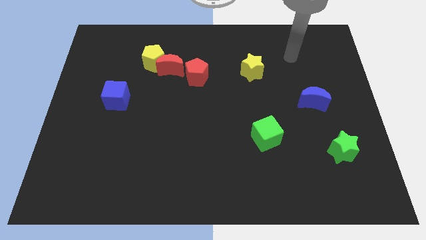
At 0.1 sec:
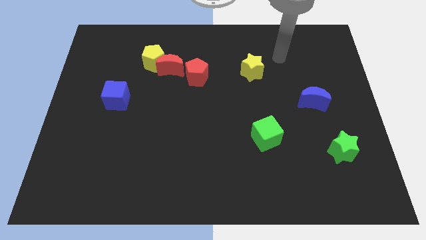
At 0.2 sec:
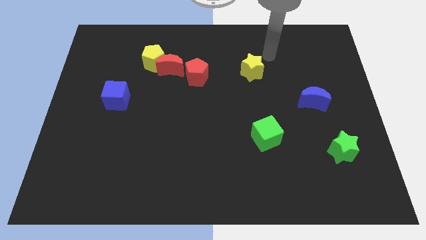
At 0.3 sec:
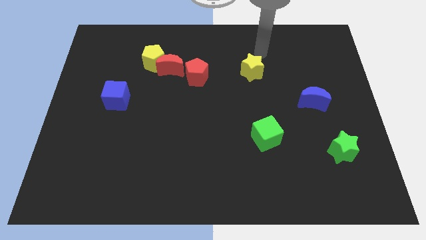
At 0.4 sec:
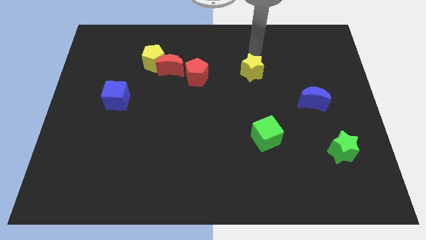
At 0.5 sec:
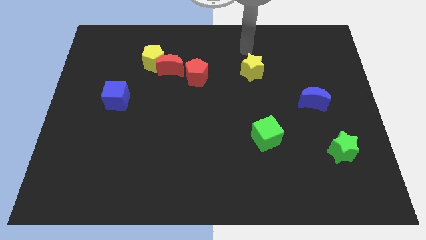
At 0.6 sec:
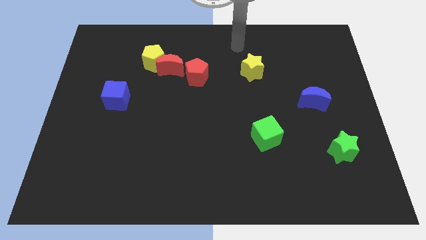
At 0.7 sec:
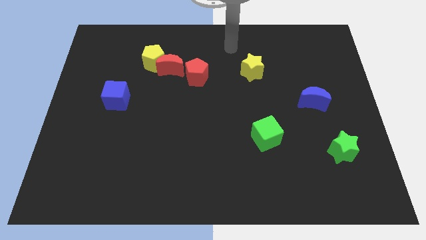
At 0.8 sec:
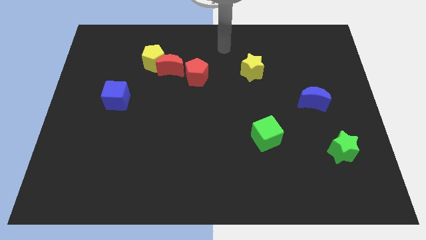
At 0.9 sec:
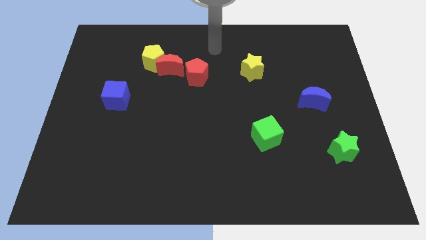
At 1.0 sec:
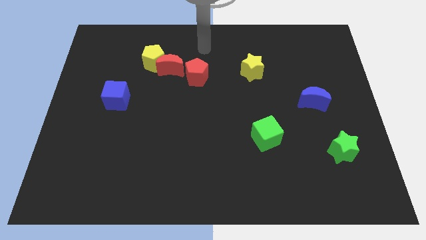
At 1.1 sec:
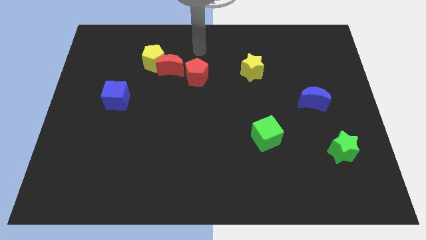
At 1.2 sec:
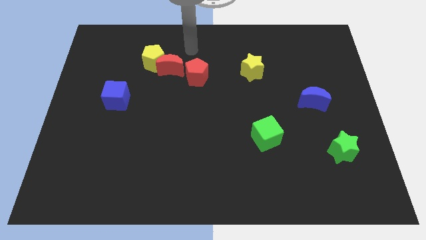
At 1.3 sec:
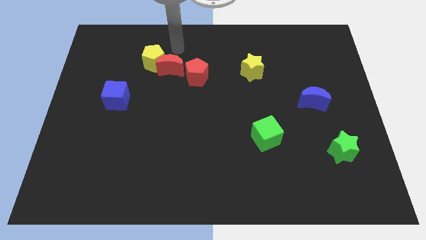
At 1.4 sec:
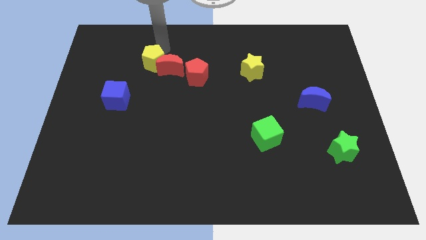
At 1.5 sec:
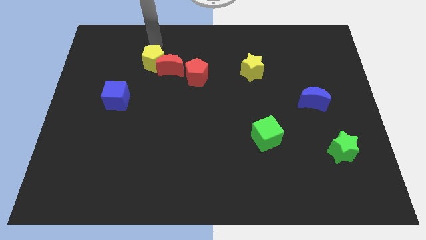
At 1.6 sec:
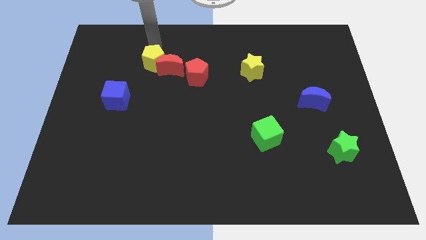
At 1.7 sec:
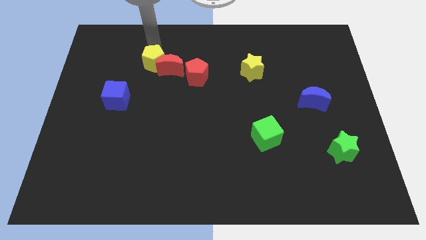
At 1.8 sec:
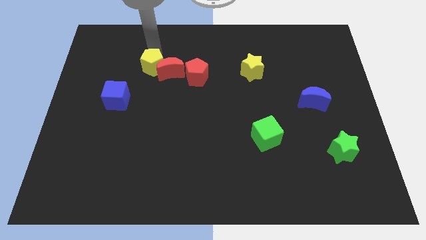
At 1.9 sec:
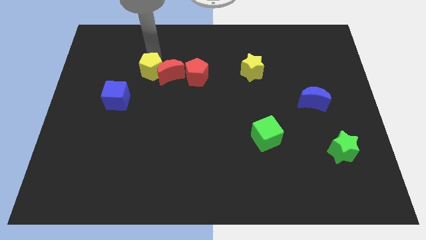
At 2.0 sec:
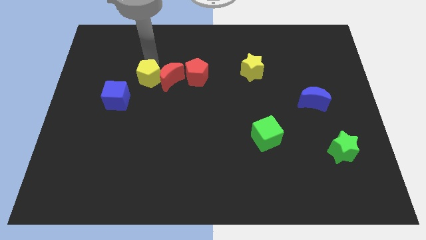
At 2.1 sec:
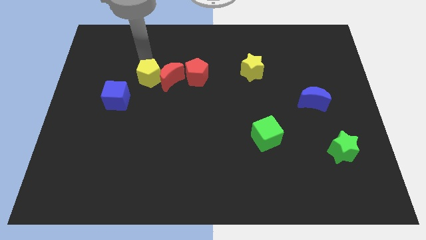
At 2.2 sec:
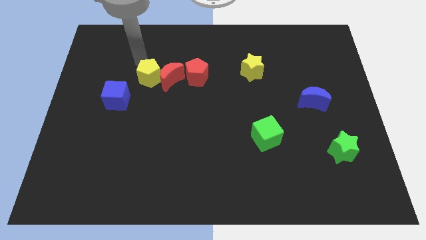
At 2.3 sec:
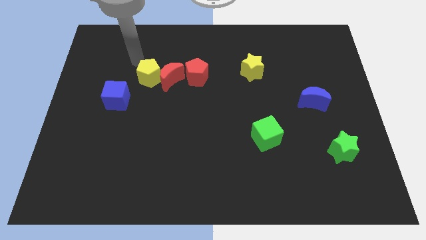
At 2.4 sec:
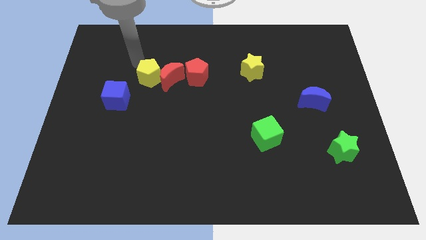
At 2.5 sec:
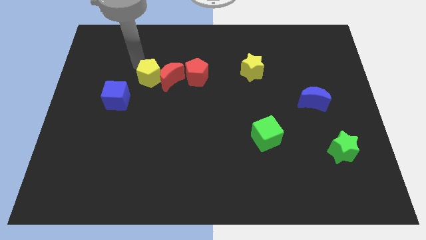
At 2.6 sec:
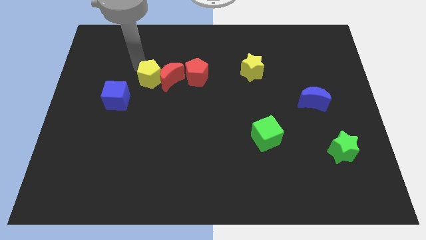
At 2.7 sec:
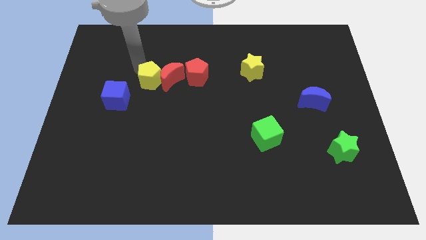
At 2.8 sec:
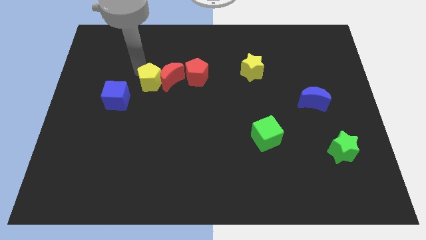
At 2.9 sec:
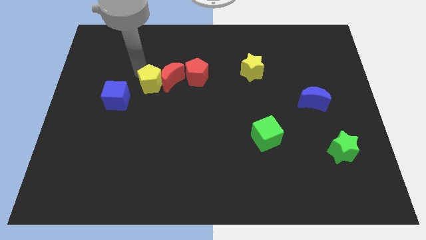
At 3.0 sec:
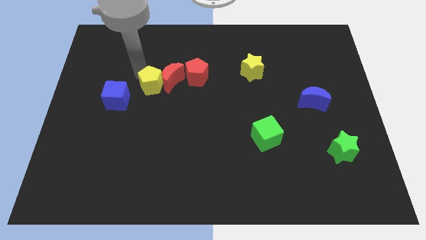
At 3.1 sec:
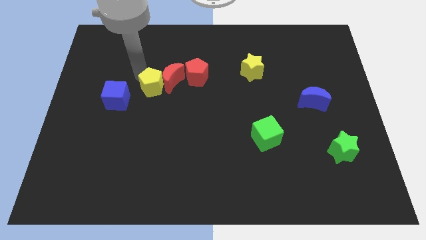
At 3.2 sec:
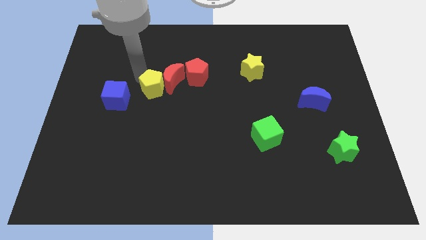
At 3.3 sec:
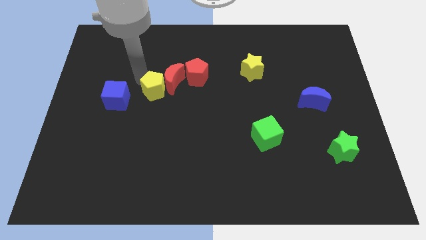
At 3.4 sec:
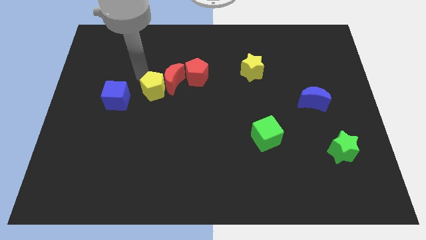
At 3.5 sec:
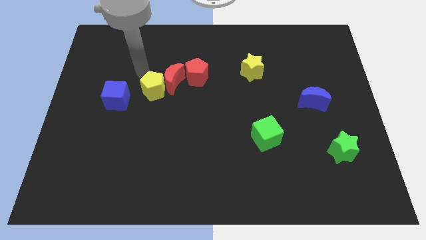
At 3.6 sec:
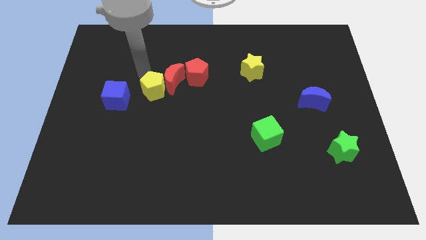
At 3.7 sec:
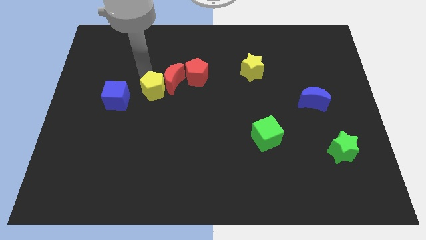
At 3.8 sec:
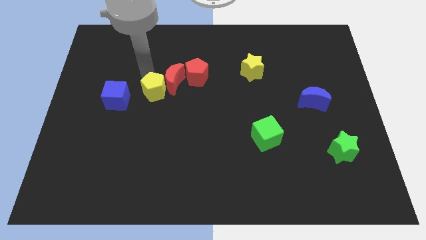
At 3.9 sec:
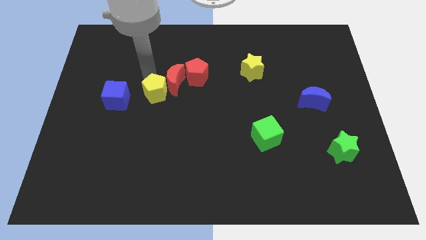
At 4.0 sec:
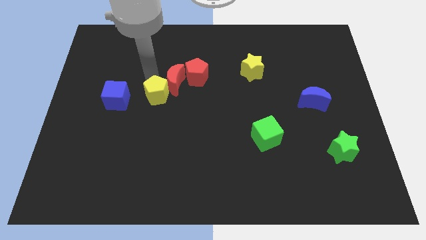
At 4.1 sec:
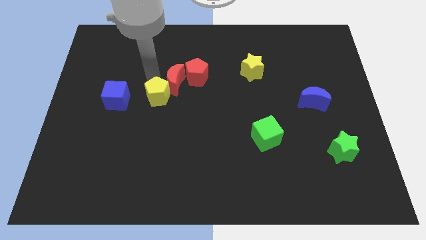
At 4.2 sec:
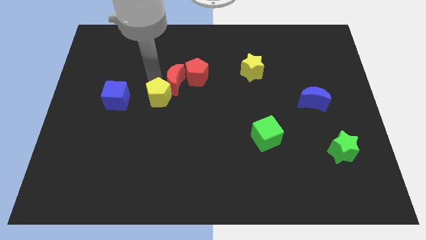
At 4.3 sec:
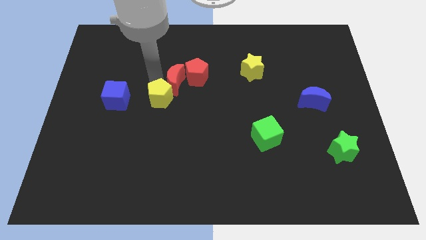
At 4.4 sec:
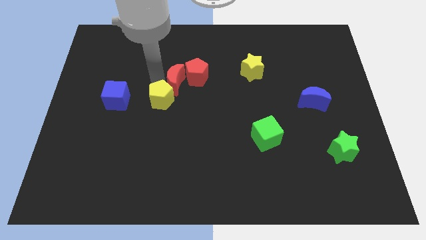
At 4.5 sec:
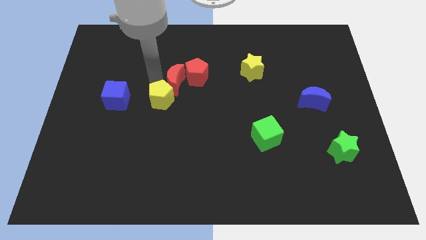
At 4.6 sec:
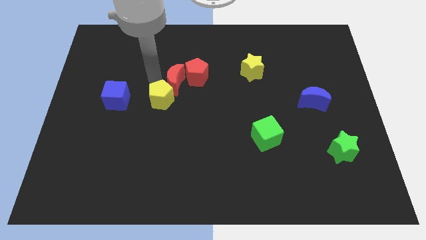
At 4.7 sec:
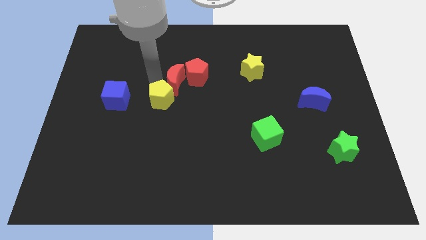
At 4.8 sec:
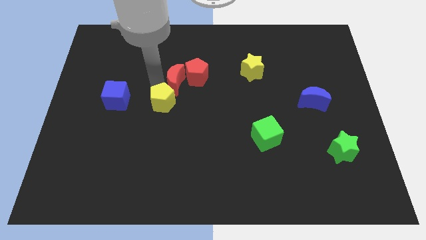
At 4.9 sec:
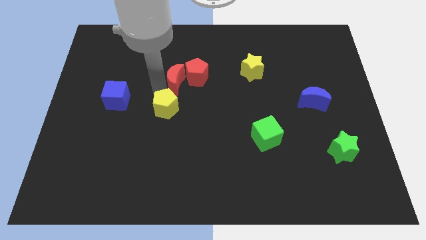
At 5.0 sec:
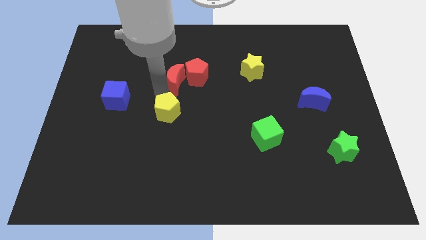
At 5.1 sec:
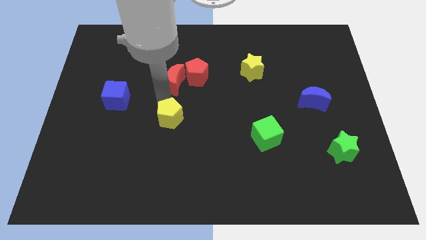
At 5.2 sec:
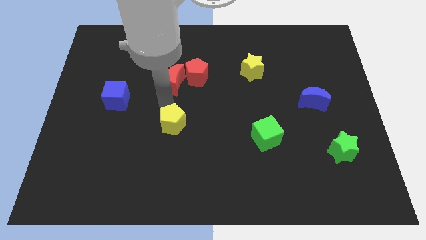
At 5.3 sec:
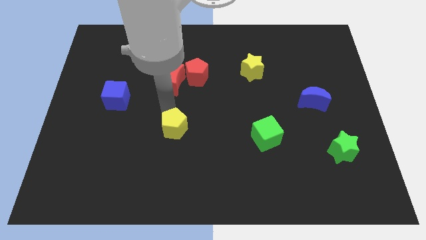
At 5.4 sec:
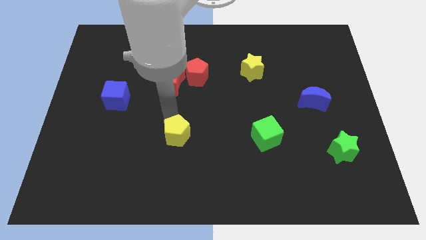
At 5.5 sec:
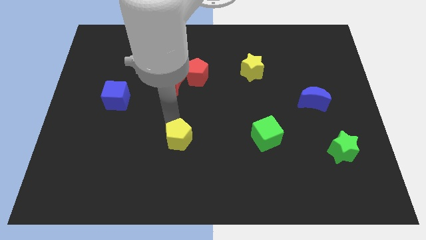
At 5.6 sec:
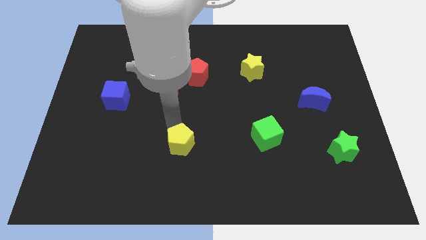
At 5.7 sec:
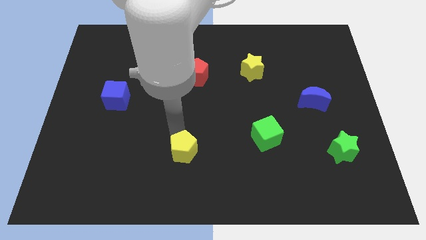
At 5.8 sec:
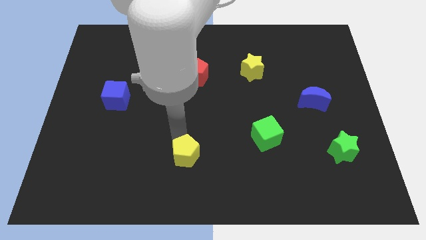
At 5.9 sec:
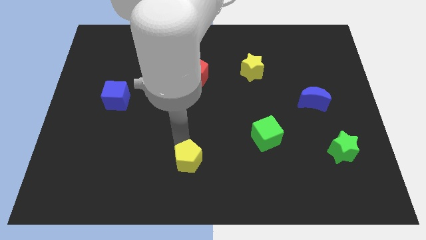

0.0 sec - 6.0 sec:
slide the yellow pentagon to the bottom side

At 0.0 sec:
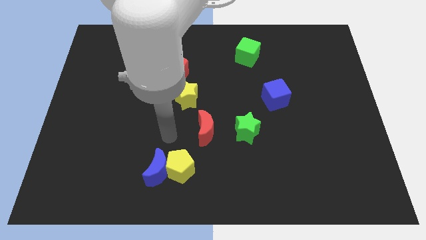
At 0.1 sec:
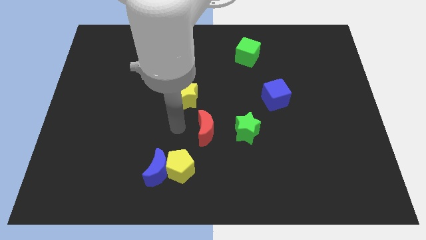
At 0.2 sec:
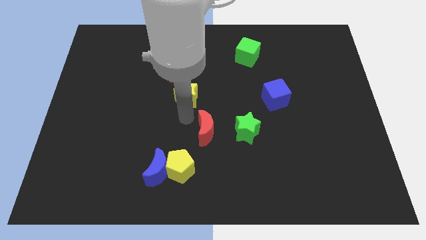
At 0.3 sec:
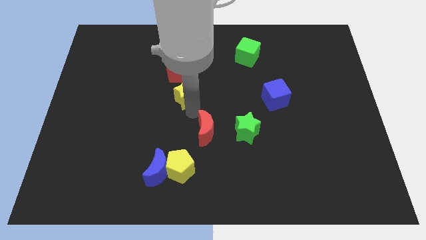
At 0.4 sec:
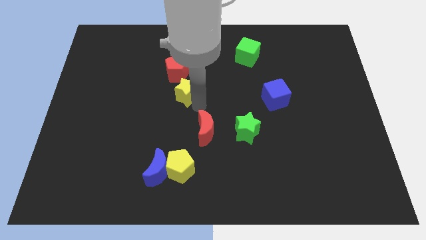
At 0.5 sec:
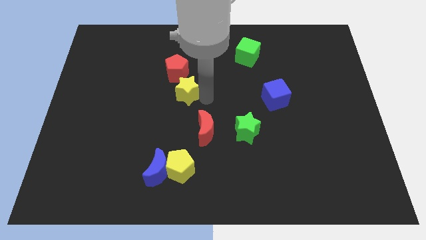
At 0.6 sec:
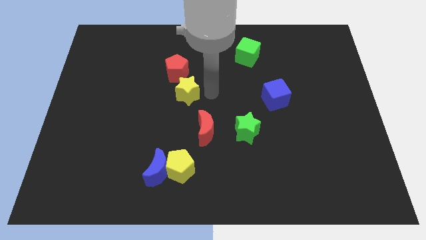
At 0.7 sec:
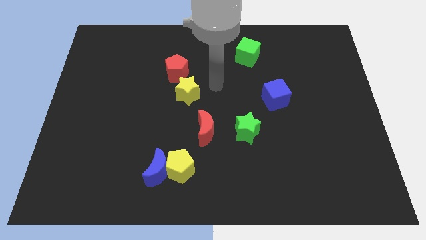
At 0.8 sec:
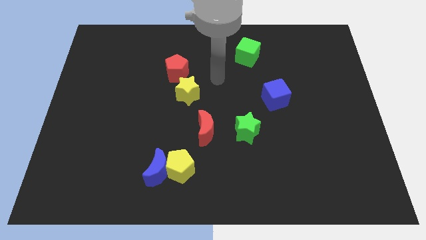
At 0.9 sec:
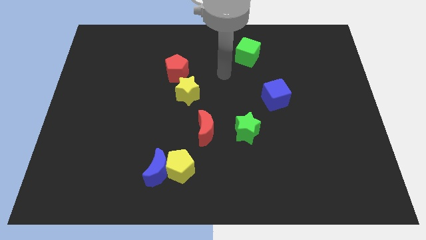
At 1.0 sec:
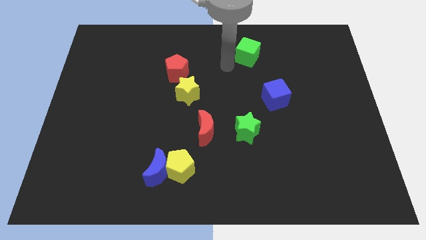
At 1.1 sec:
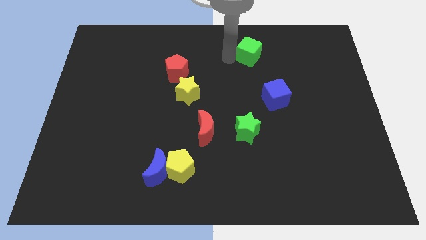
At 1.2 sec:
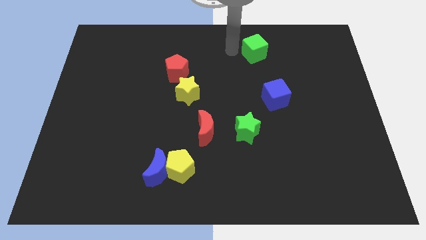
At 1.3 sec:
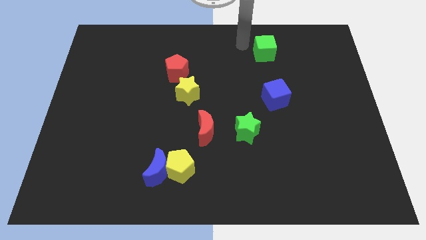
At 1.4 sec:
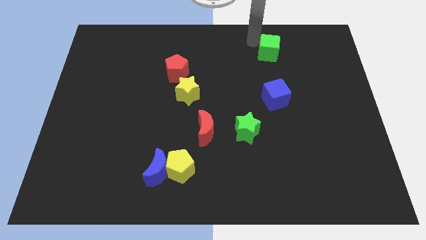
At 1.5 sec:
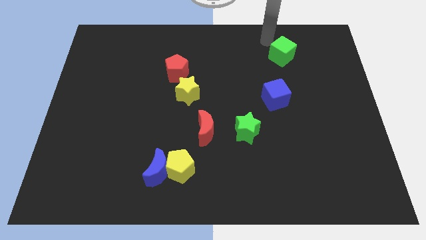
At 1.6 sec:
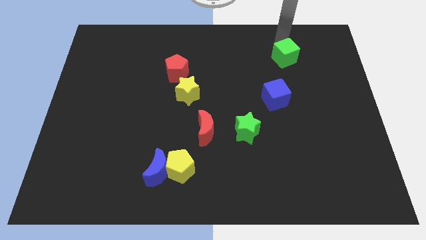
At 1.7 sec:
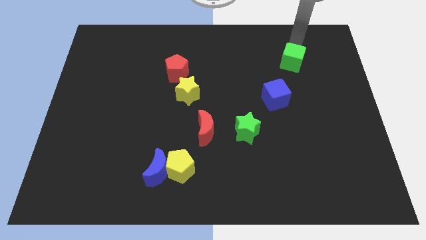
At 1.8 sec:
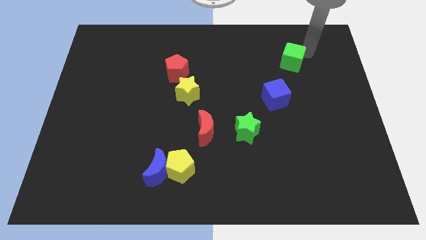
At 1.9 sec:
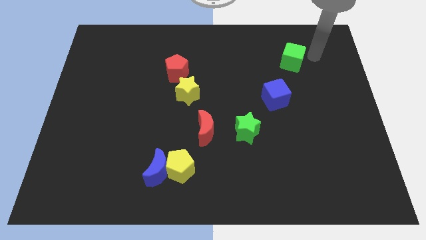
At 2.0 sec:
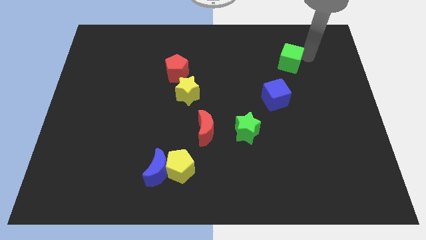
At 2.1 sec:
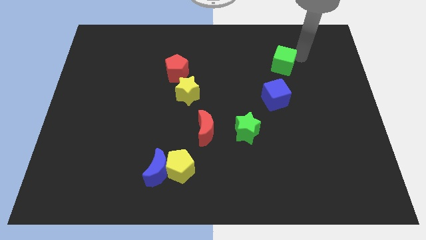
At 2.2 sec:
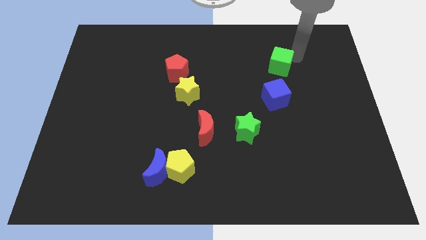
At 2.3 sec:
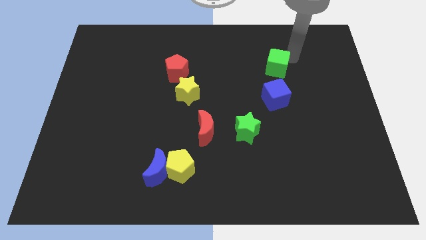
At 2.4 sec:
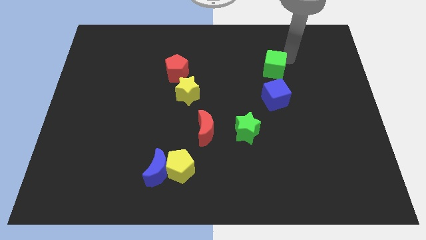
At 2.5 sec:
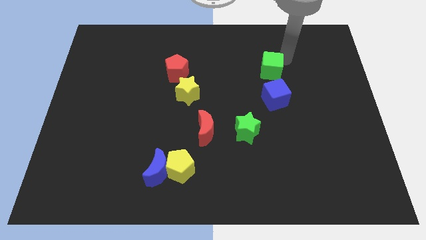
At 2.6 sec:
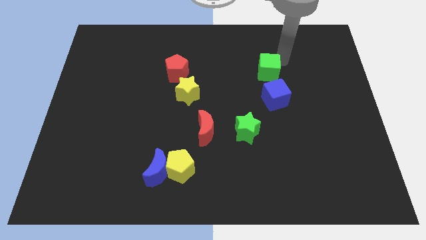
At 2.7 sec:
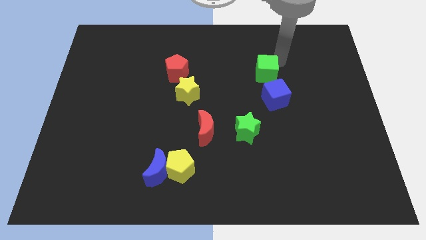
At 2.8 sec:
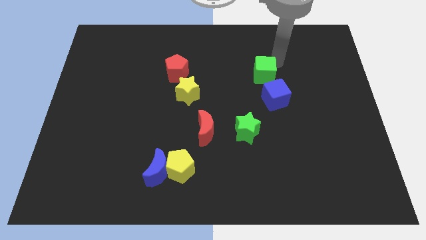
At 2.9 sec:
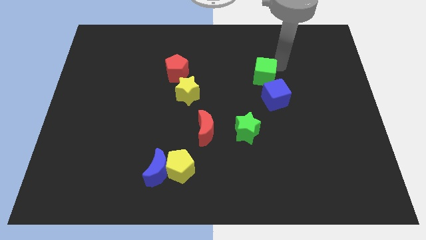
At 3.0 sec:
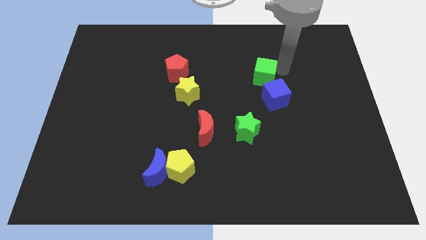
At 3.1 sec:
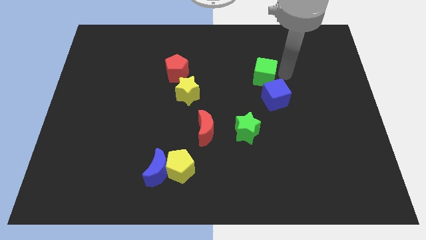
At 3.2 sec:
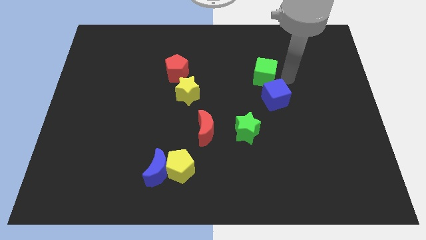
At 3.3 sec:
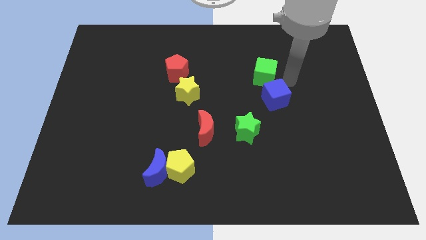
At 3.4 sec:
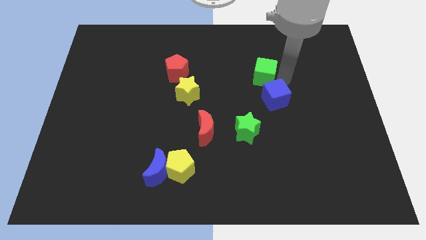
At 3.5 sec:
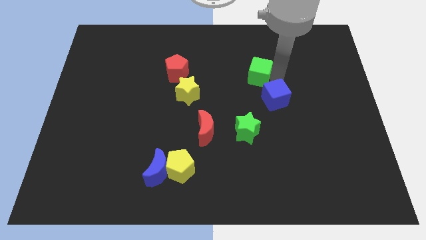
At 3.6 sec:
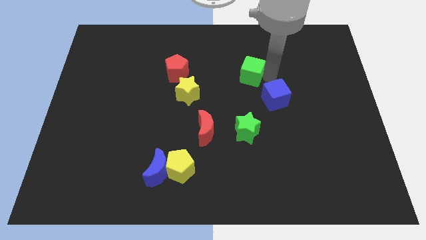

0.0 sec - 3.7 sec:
put the green cube to the center of the board
